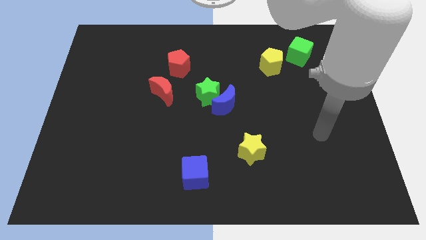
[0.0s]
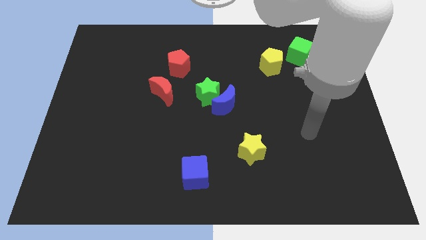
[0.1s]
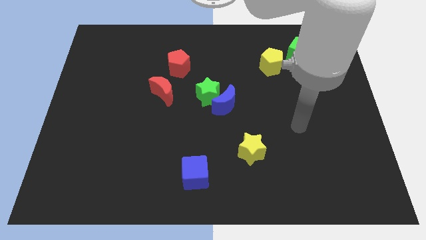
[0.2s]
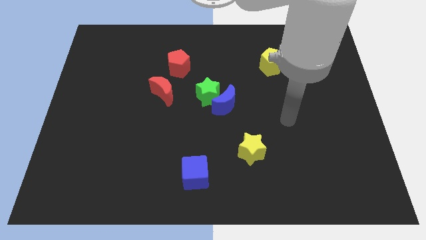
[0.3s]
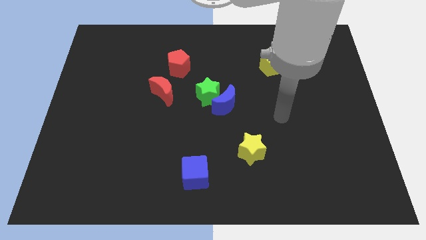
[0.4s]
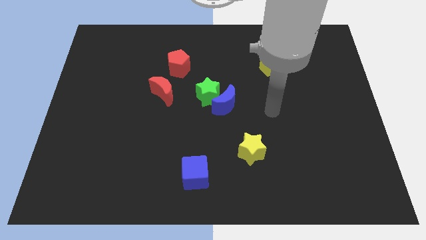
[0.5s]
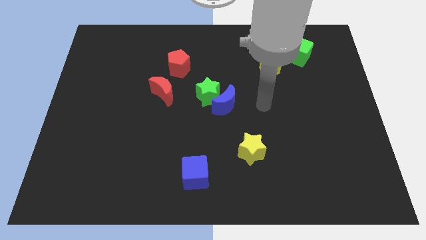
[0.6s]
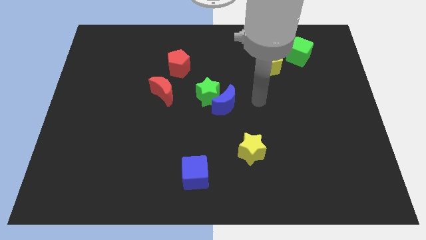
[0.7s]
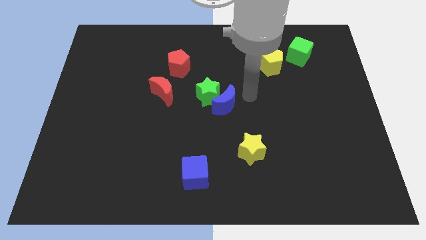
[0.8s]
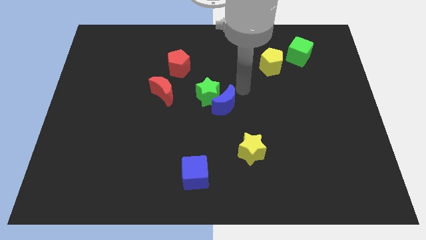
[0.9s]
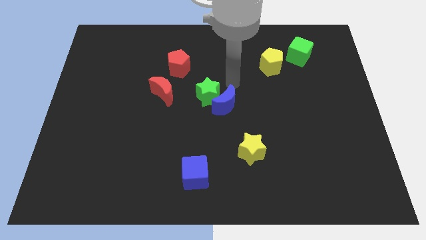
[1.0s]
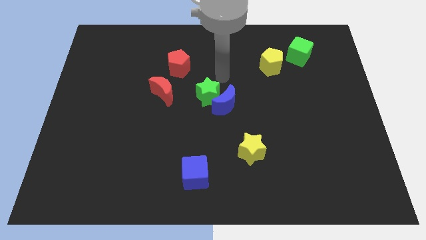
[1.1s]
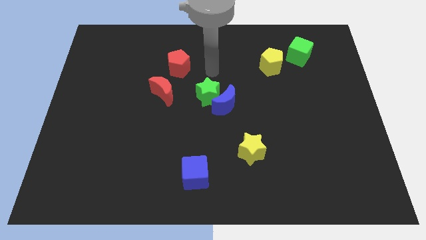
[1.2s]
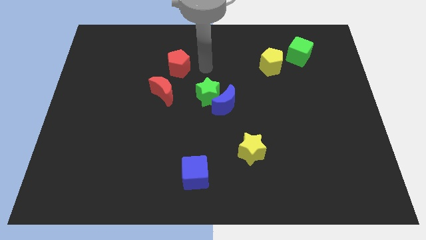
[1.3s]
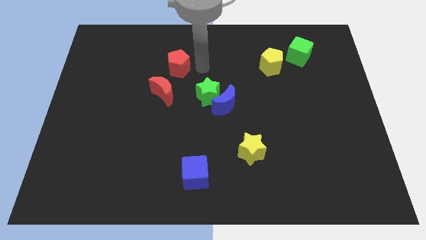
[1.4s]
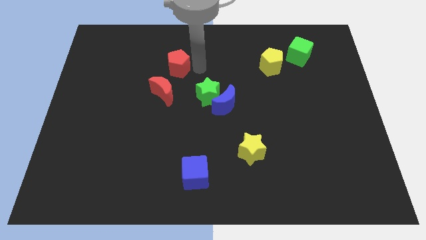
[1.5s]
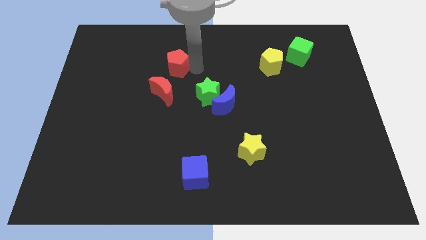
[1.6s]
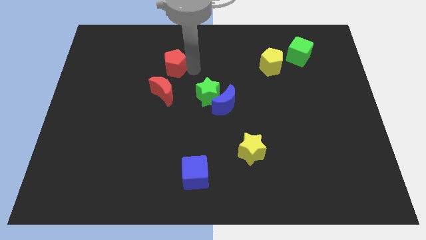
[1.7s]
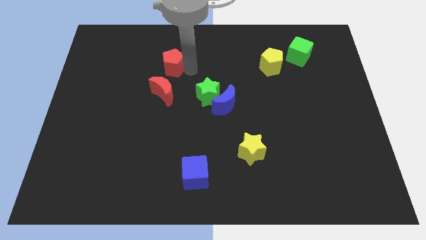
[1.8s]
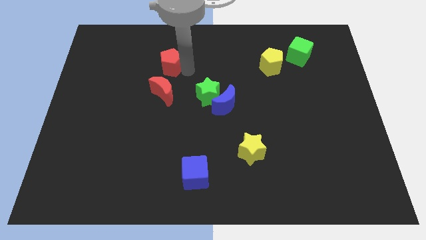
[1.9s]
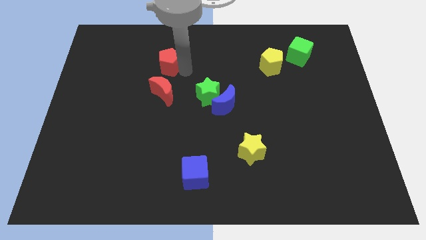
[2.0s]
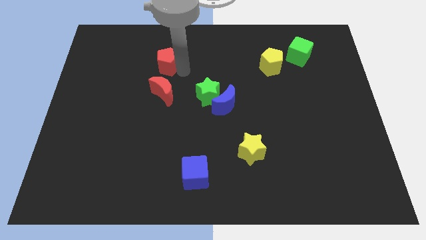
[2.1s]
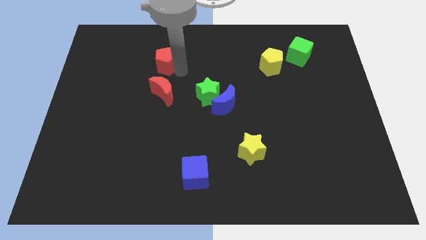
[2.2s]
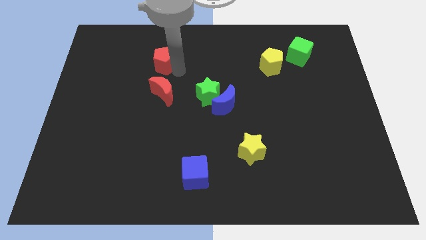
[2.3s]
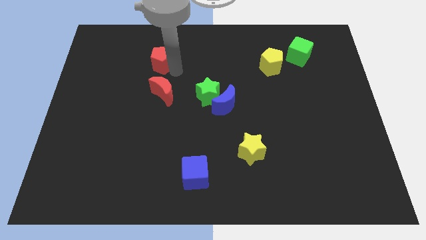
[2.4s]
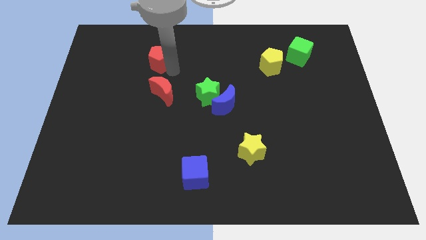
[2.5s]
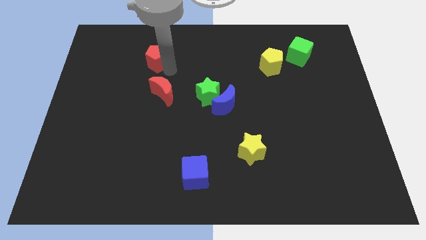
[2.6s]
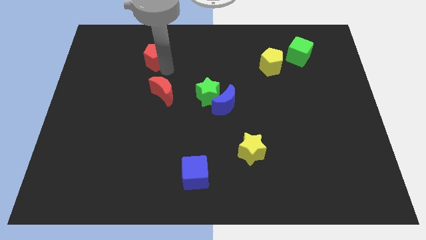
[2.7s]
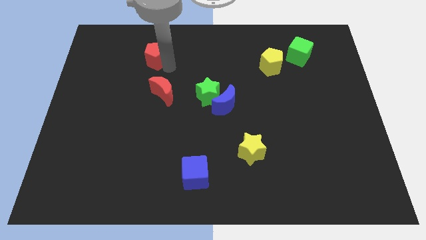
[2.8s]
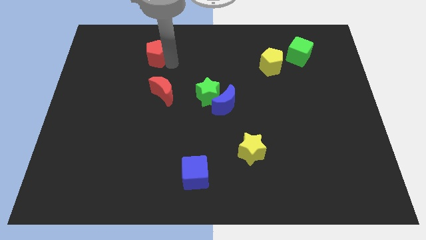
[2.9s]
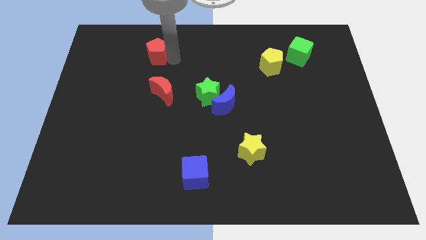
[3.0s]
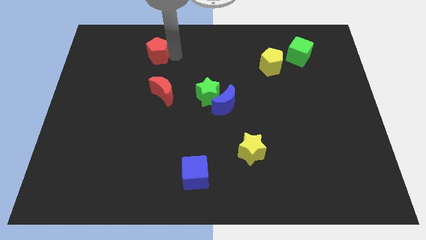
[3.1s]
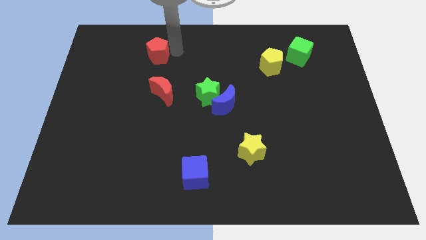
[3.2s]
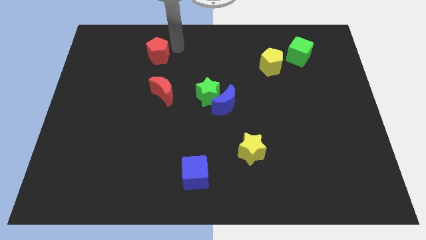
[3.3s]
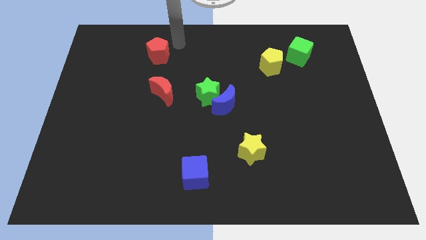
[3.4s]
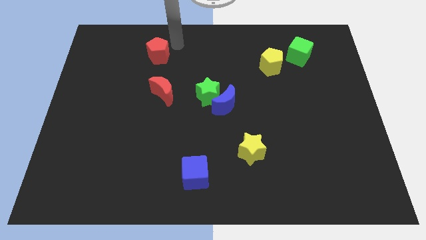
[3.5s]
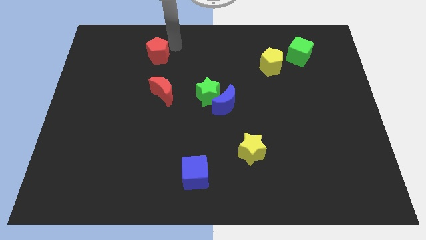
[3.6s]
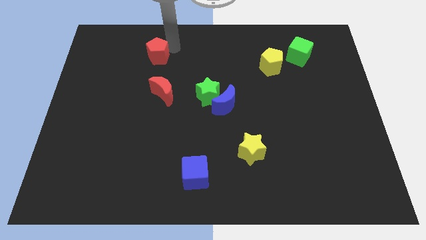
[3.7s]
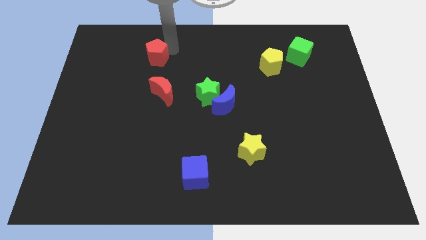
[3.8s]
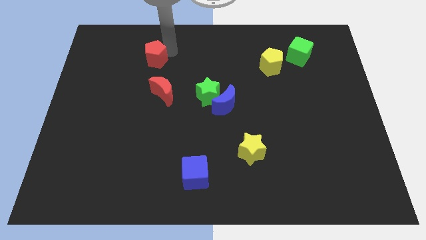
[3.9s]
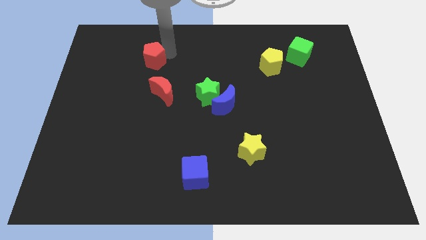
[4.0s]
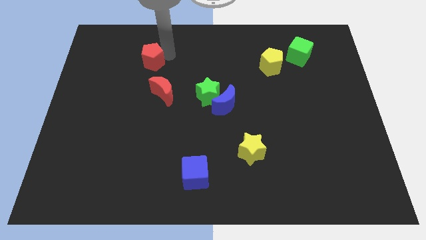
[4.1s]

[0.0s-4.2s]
push the red pentagon a little to the left

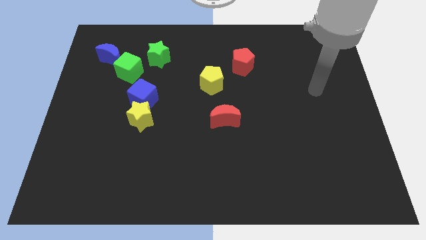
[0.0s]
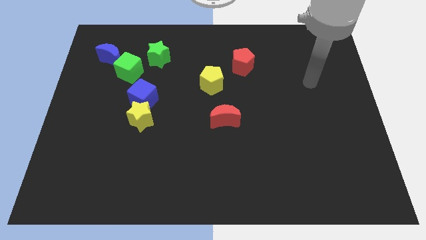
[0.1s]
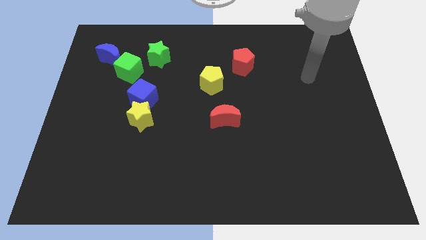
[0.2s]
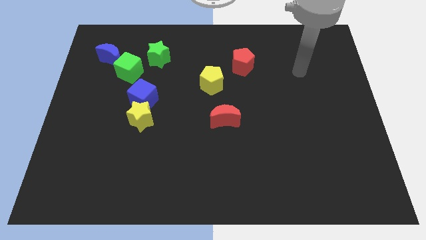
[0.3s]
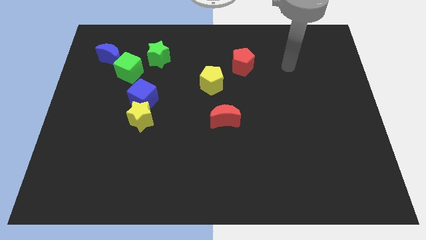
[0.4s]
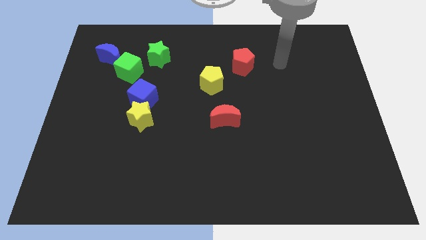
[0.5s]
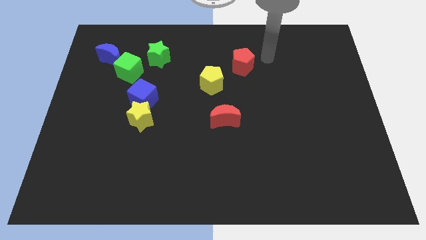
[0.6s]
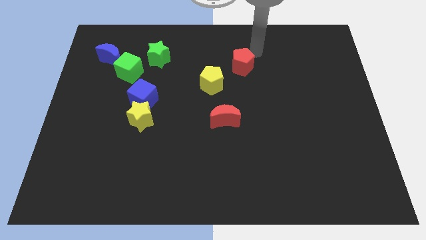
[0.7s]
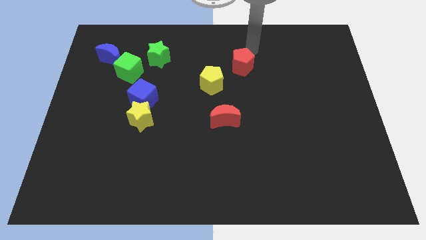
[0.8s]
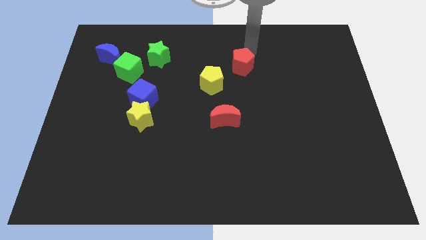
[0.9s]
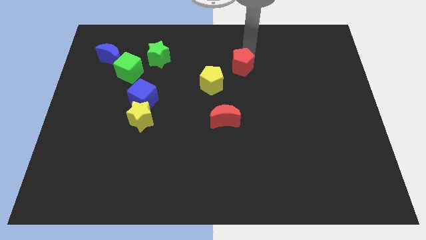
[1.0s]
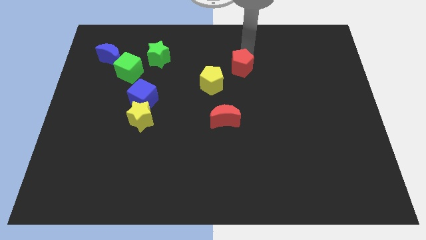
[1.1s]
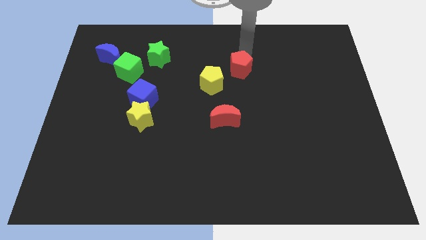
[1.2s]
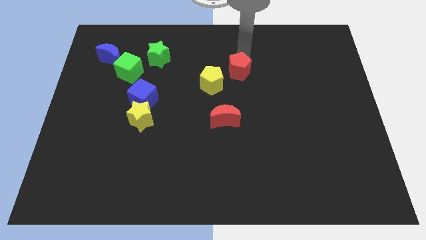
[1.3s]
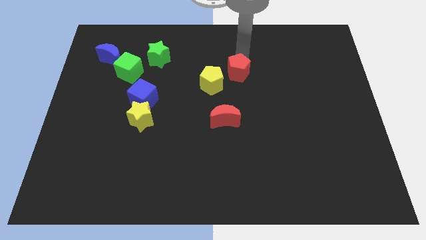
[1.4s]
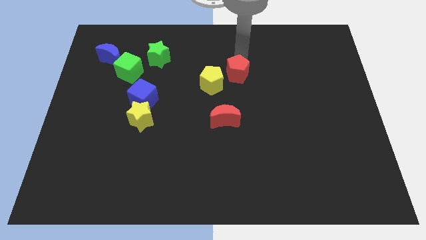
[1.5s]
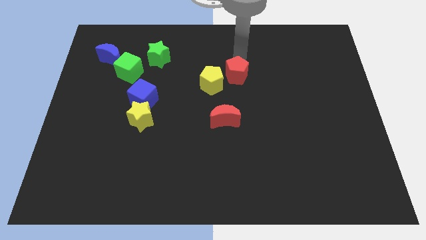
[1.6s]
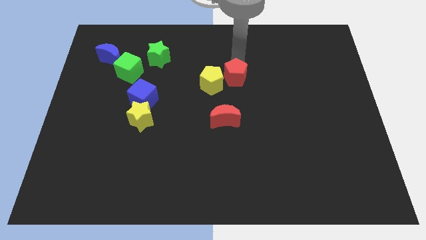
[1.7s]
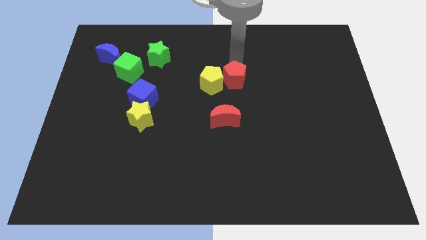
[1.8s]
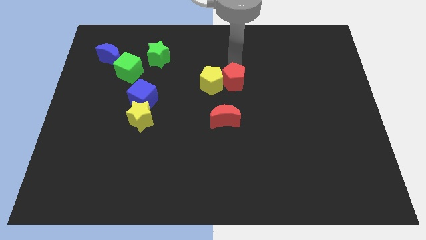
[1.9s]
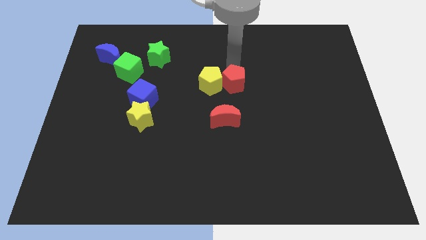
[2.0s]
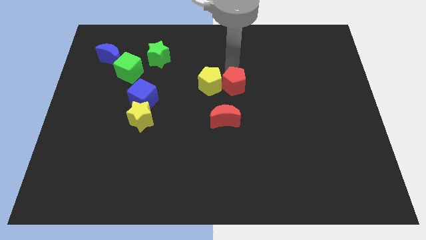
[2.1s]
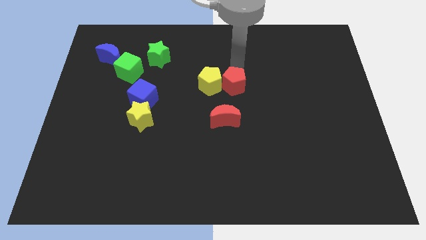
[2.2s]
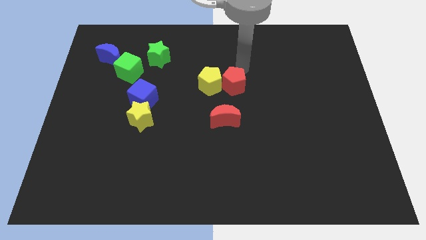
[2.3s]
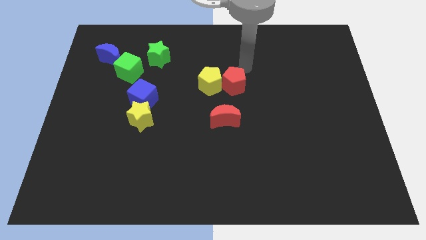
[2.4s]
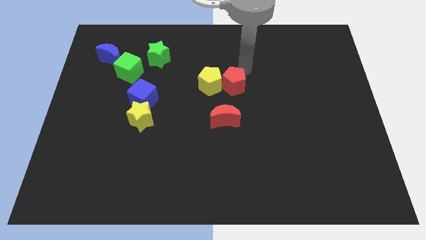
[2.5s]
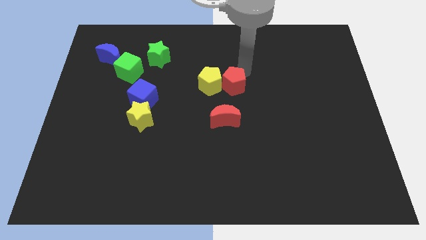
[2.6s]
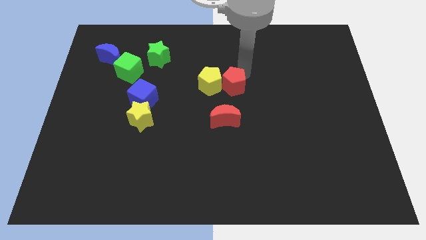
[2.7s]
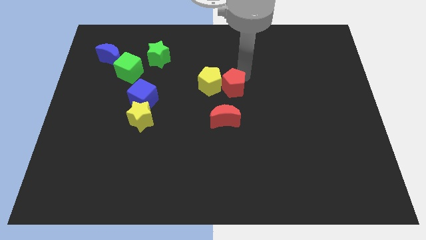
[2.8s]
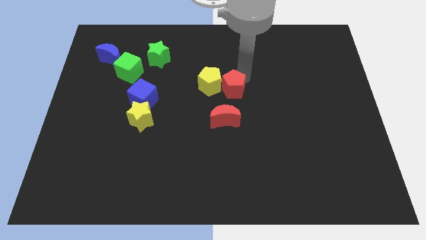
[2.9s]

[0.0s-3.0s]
push the red pentagon somewhat downwards and to the left

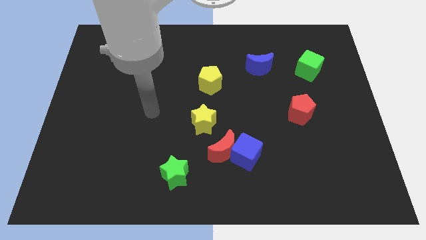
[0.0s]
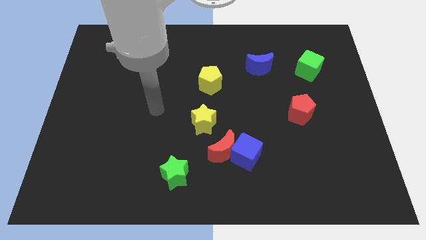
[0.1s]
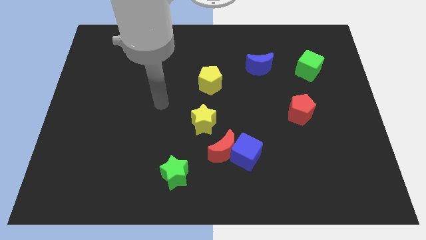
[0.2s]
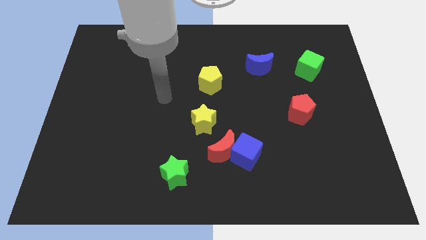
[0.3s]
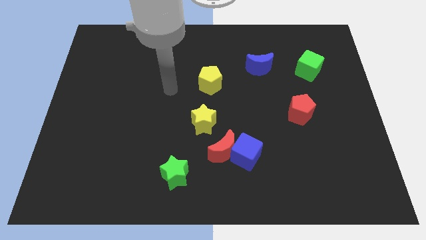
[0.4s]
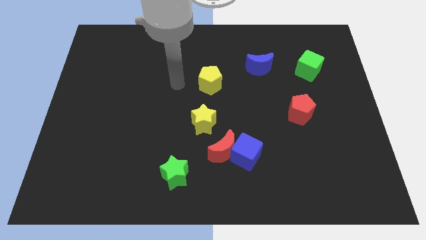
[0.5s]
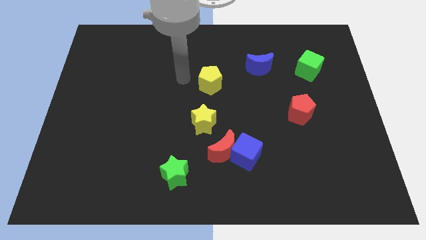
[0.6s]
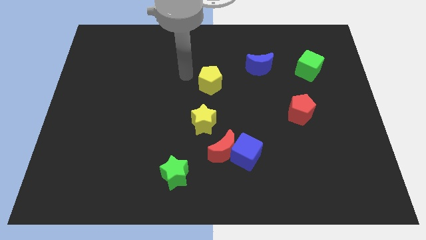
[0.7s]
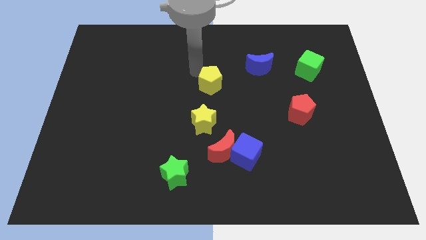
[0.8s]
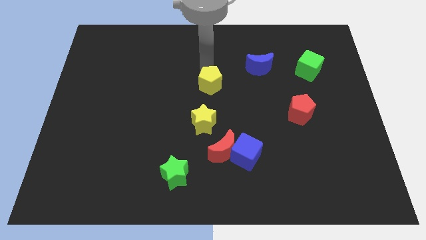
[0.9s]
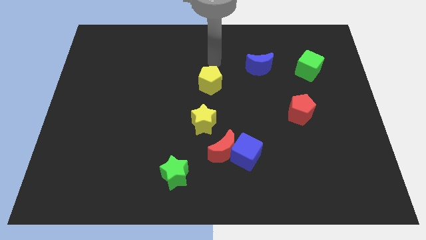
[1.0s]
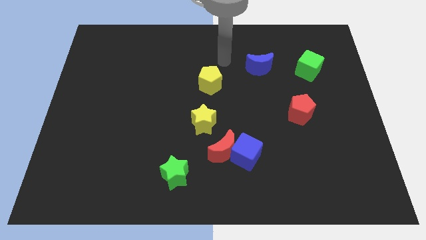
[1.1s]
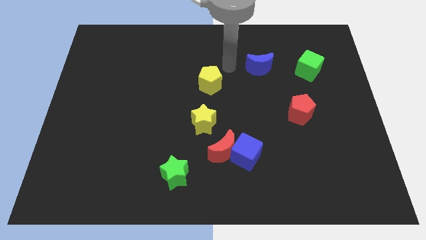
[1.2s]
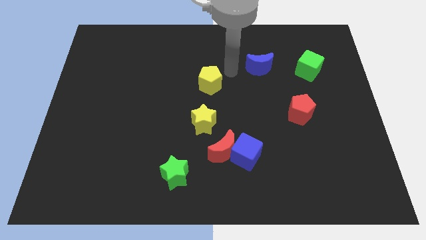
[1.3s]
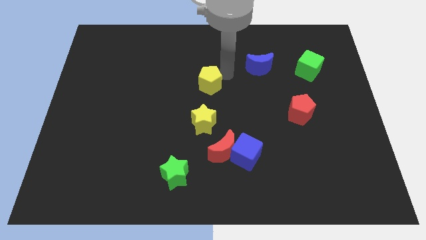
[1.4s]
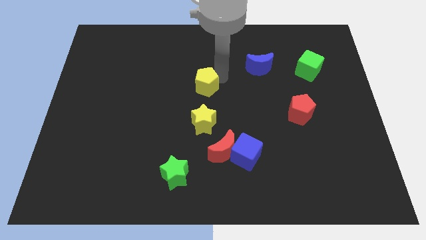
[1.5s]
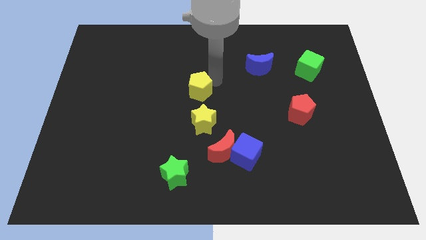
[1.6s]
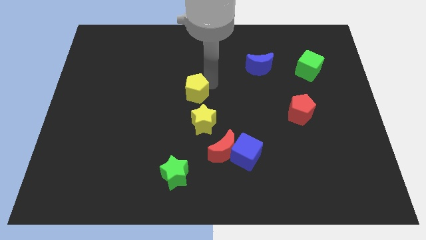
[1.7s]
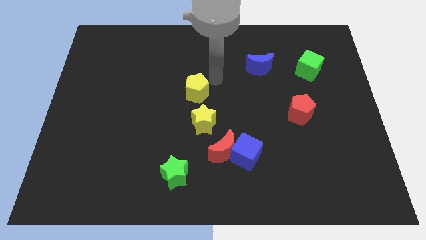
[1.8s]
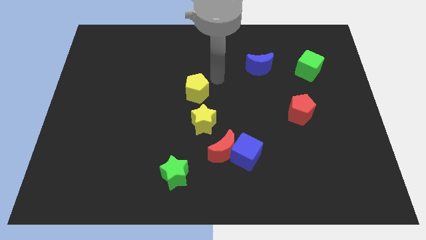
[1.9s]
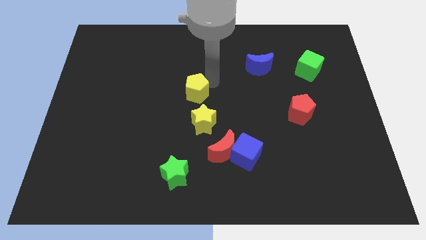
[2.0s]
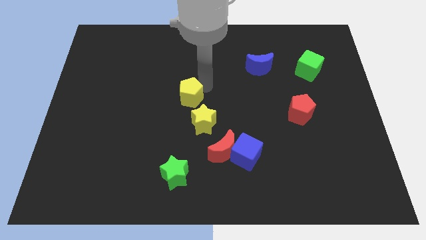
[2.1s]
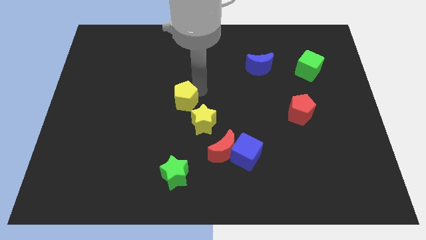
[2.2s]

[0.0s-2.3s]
move the yellow pentagon a little bit downwards and left
